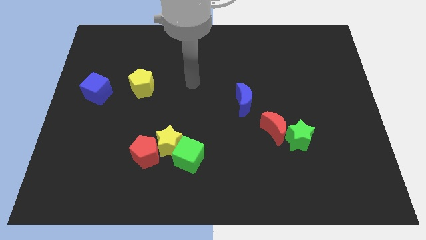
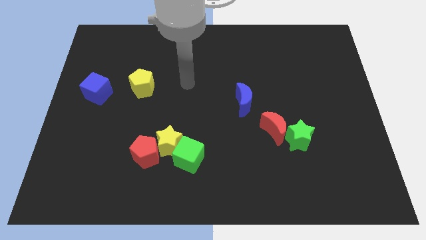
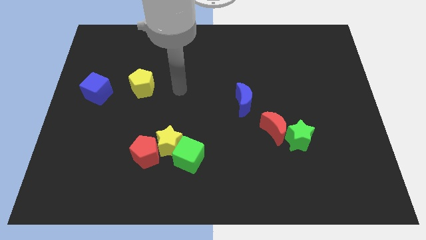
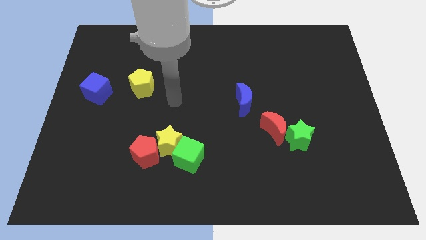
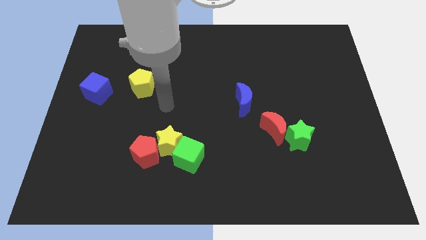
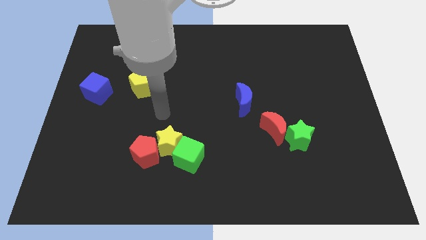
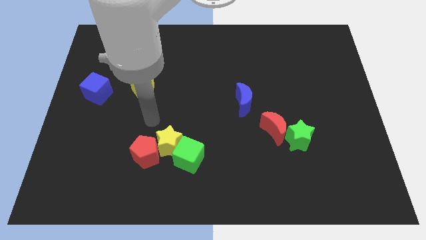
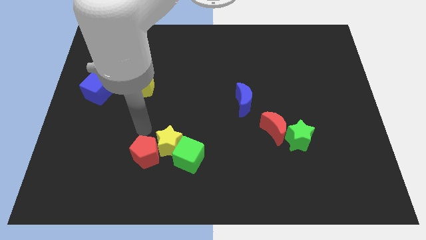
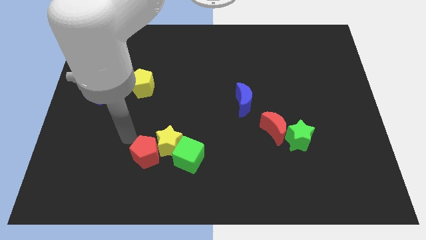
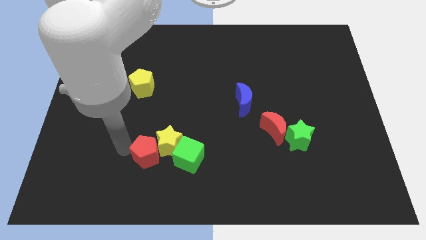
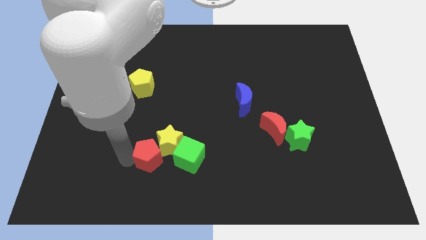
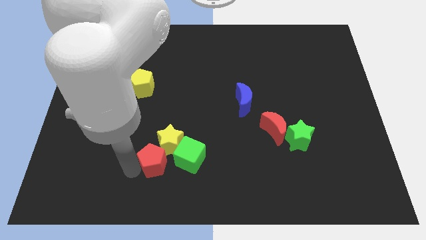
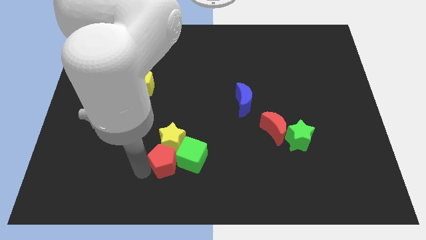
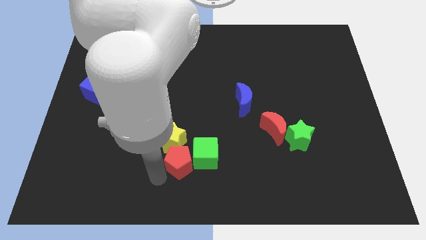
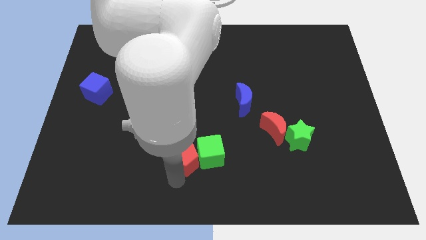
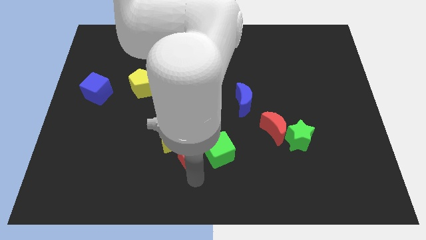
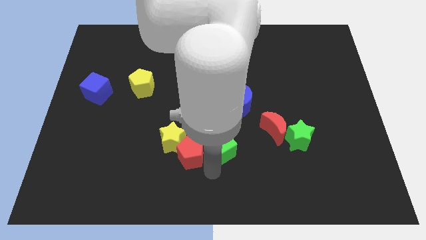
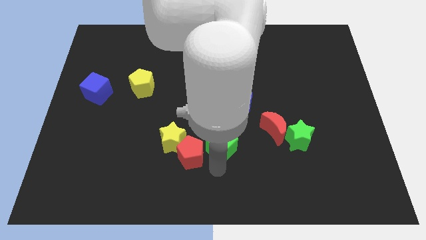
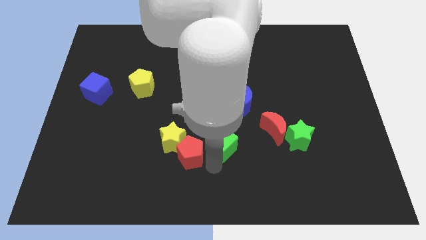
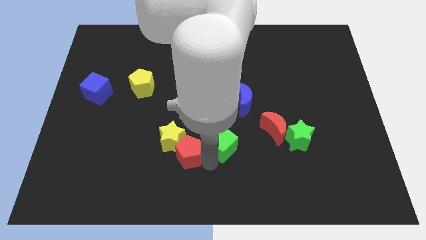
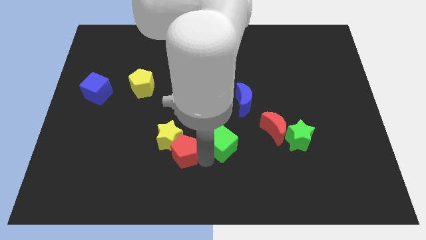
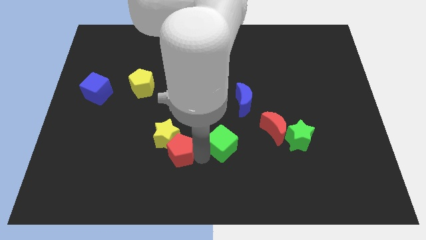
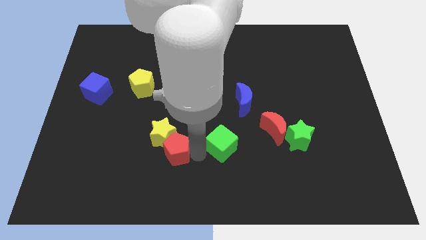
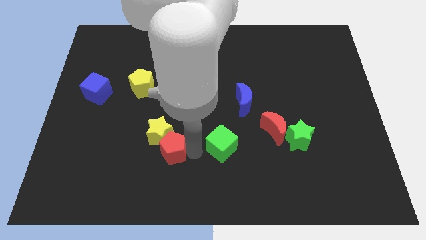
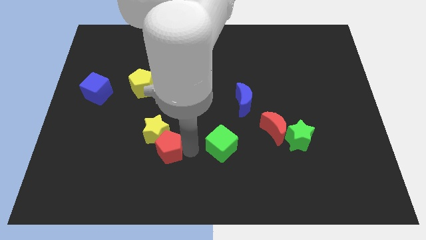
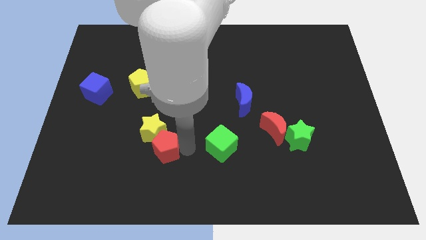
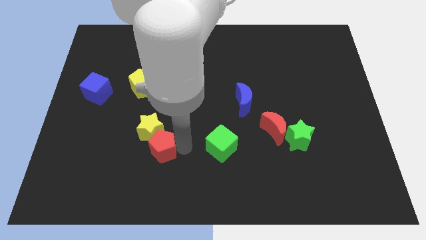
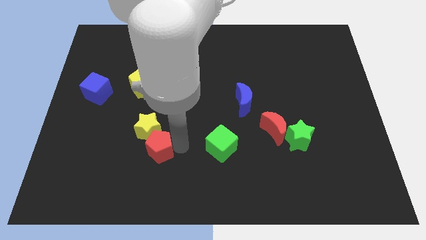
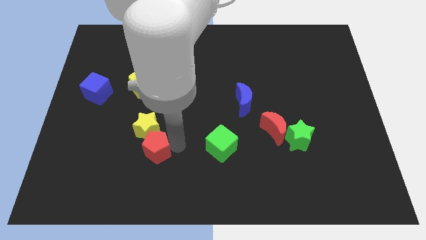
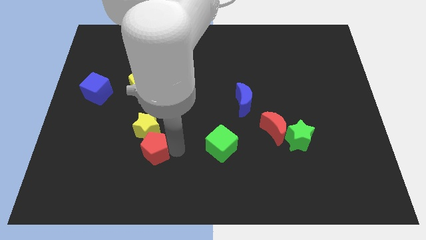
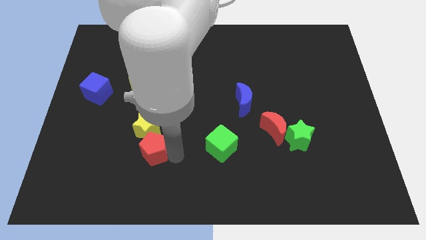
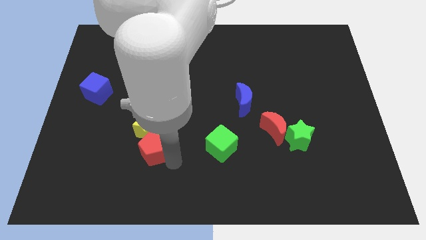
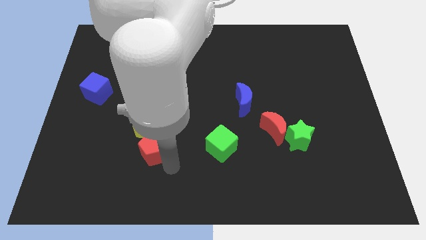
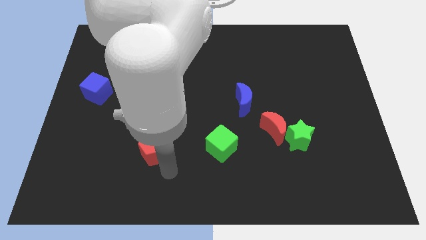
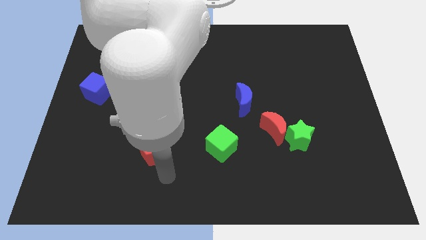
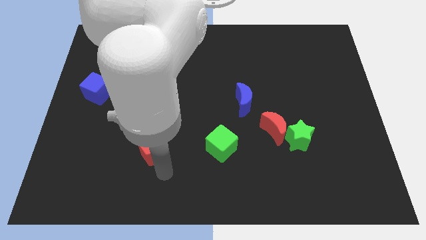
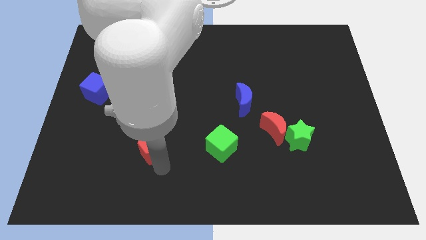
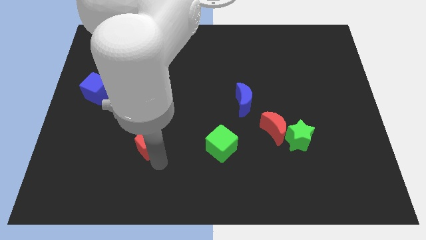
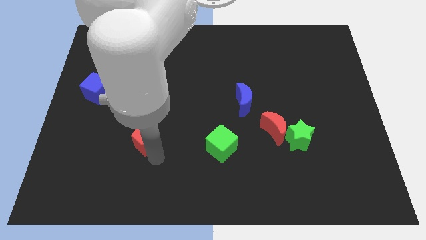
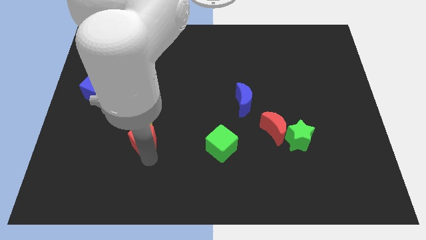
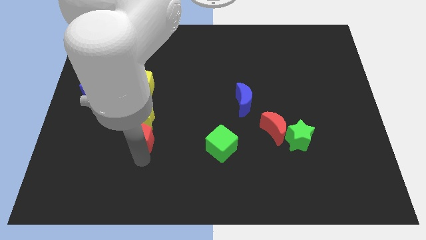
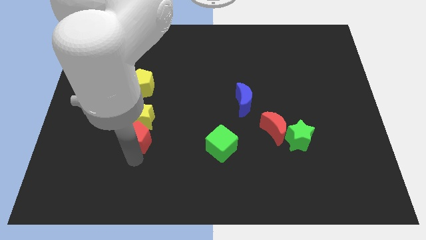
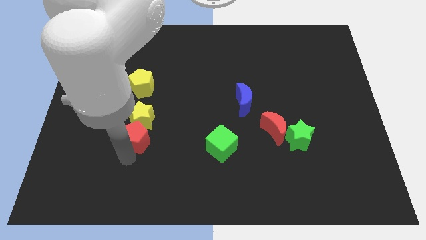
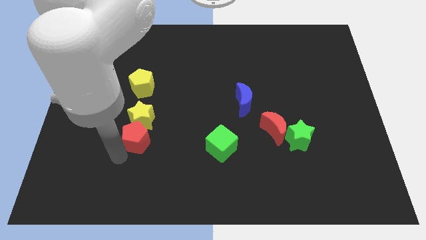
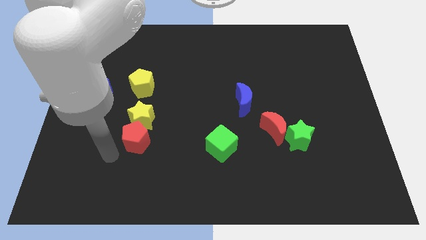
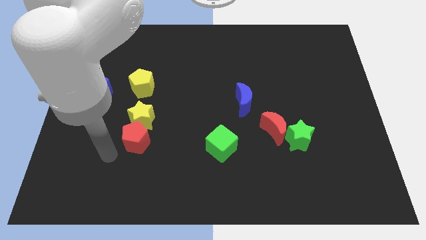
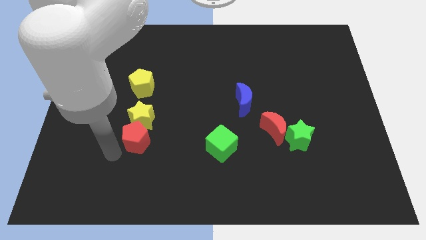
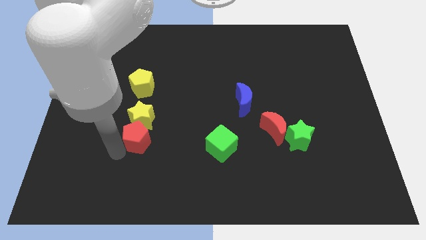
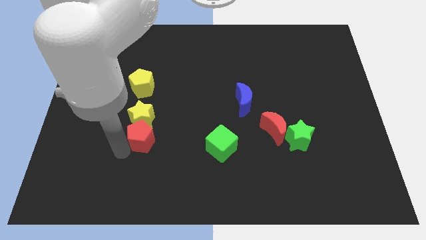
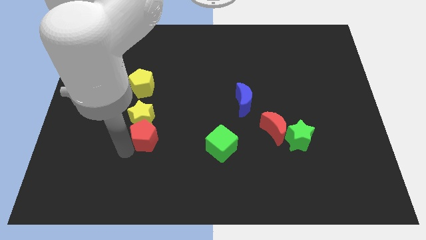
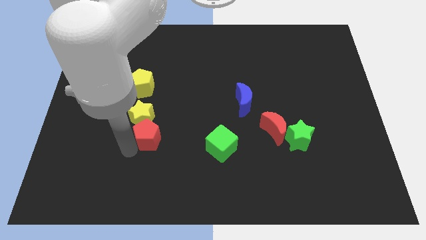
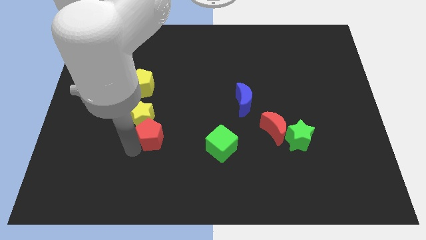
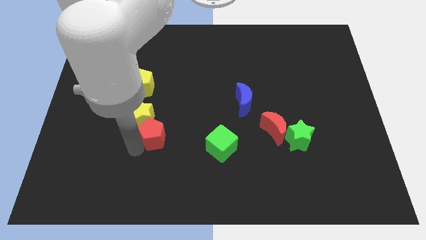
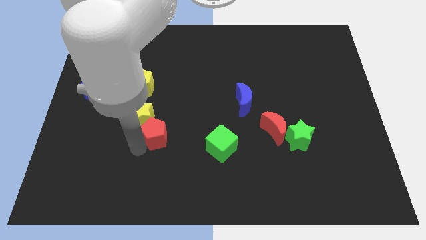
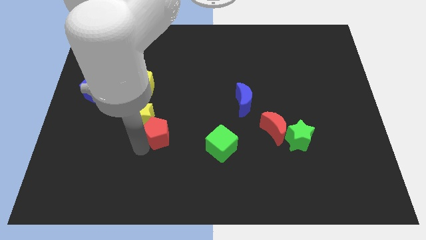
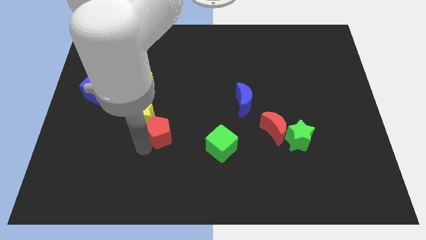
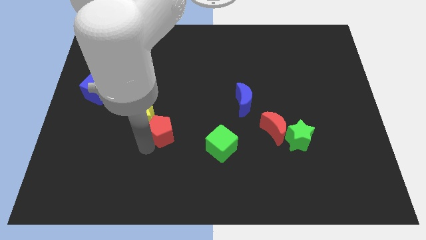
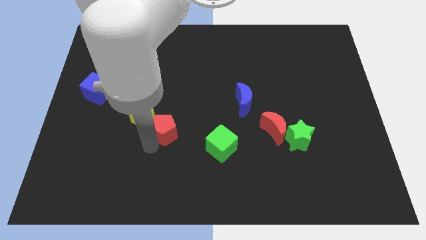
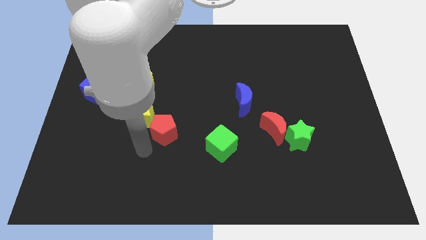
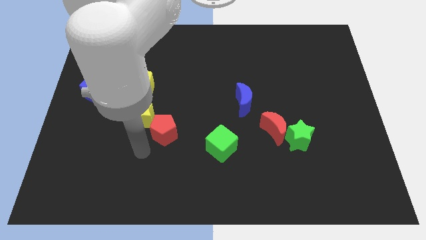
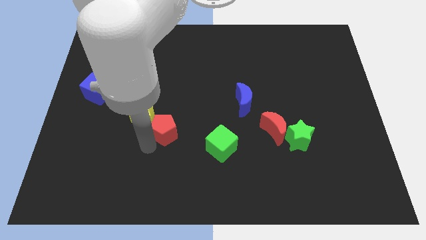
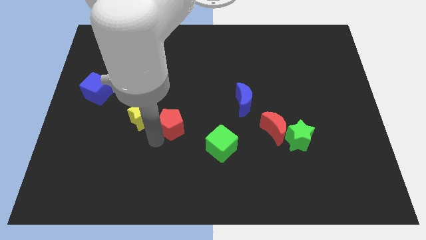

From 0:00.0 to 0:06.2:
slightly move the red pentagon upwards and to the right diagonally

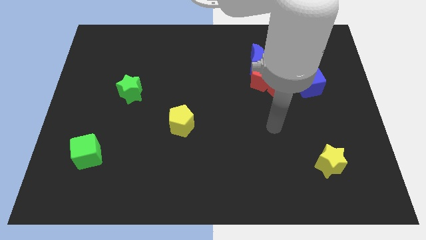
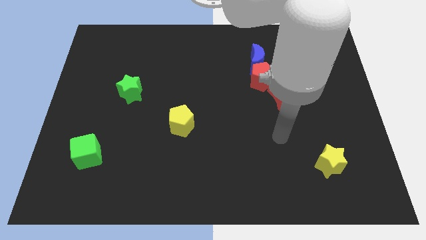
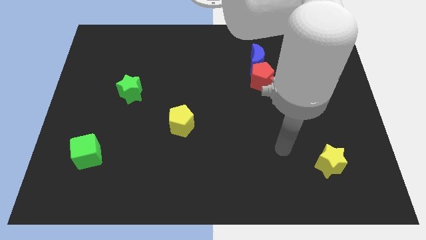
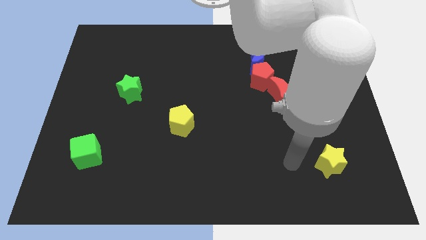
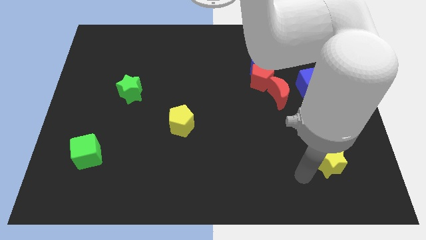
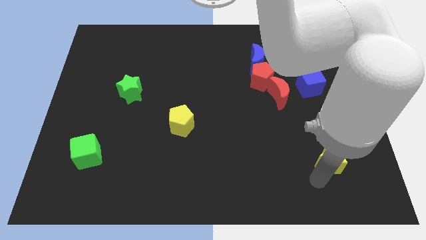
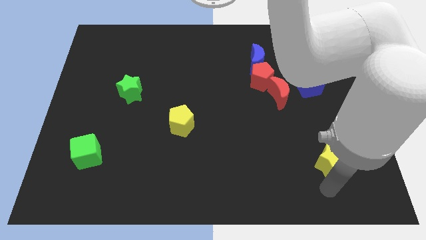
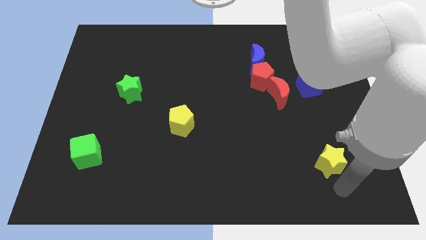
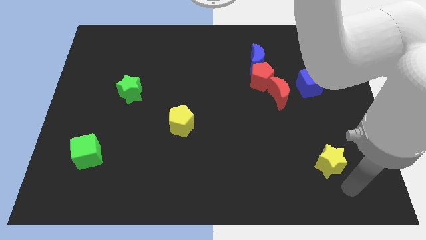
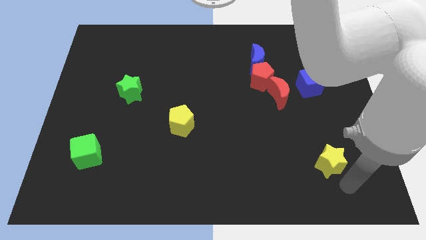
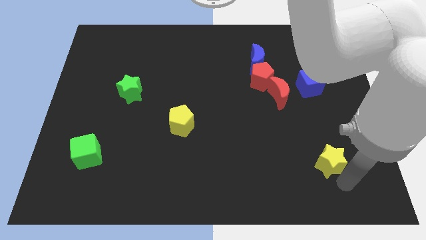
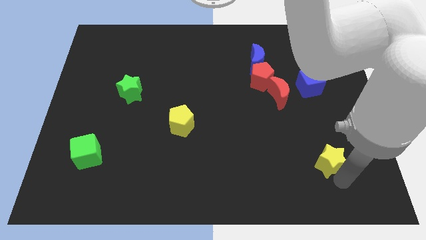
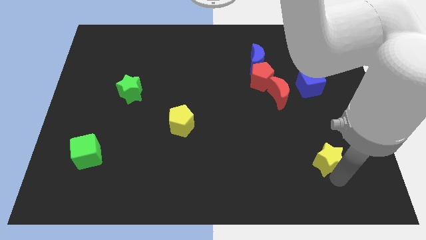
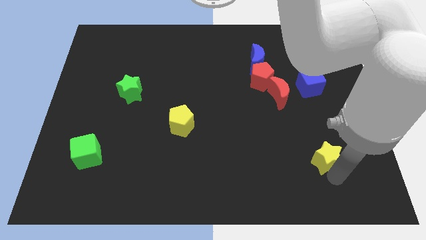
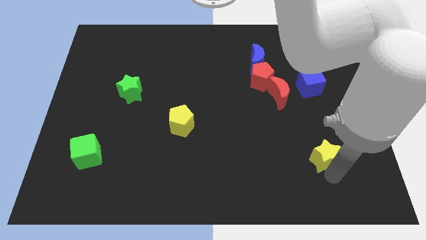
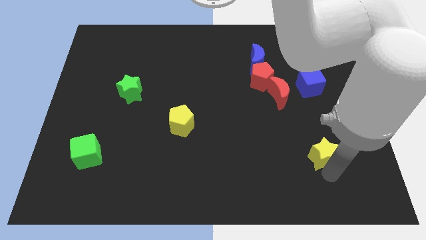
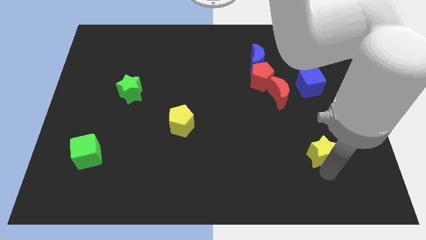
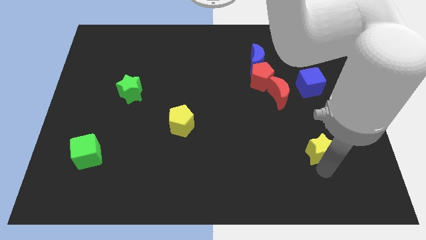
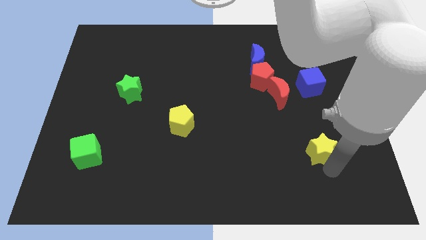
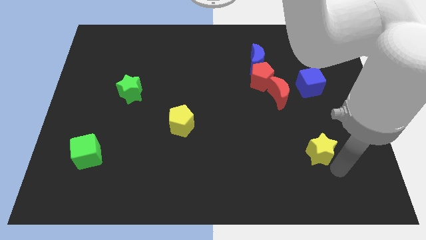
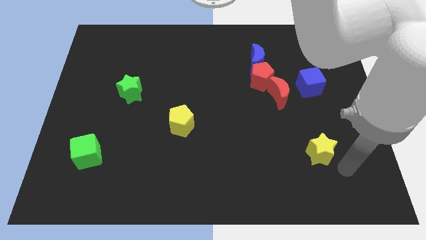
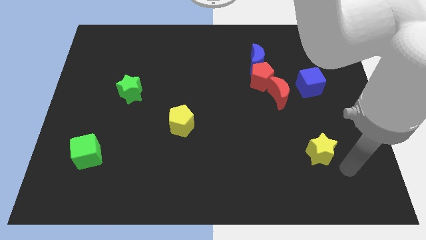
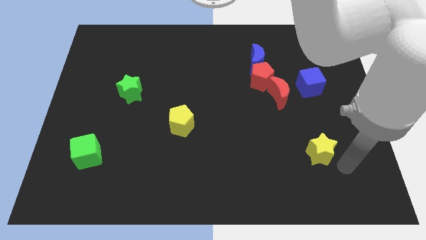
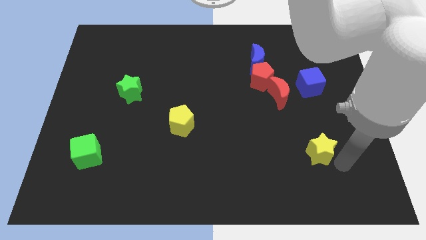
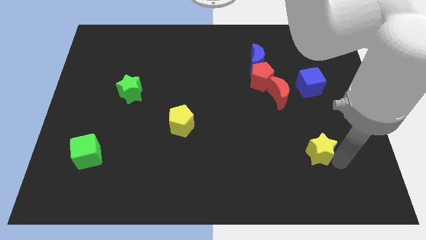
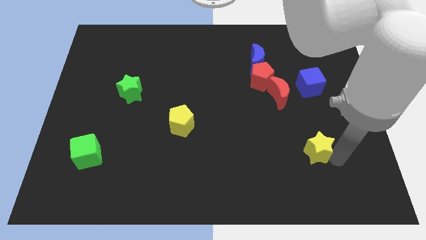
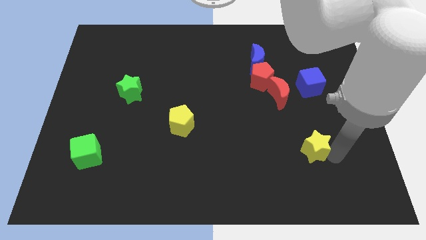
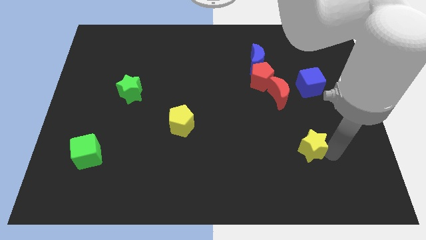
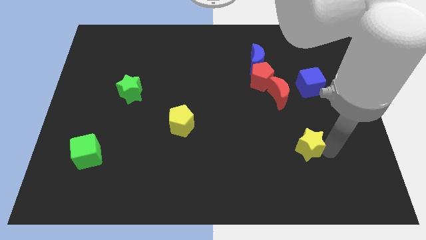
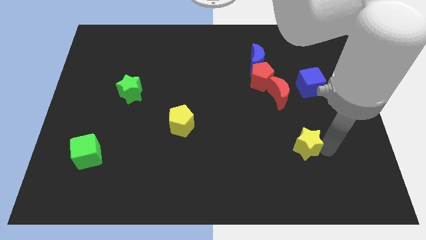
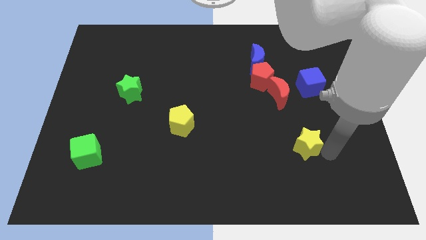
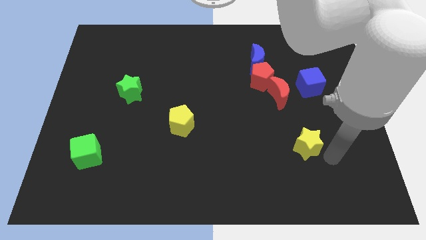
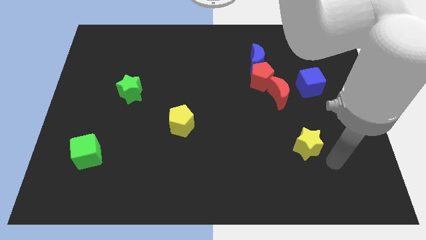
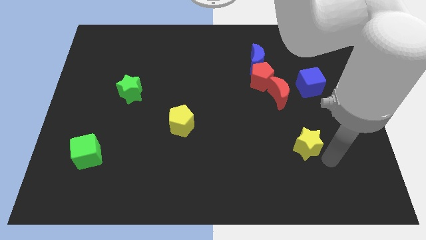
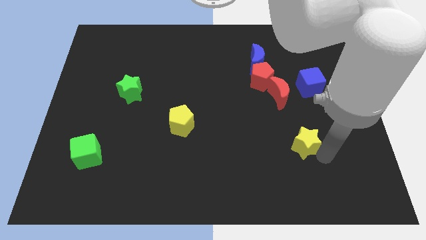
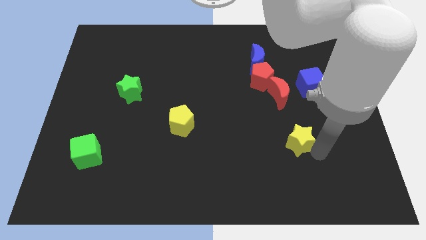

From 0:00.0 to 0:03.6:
slide the yellow star diagonally upwards and left a little
